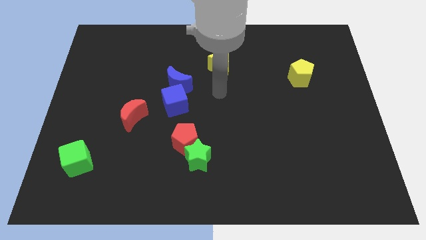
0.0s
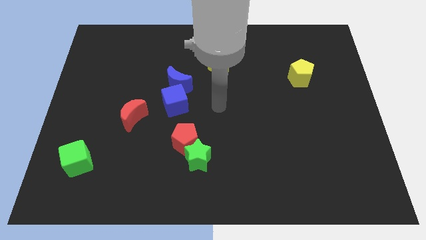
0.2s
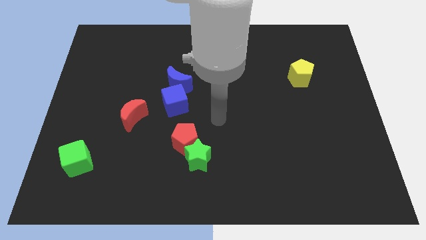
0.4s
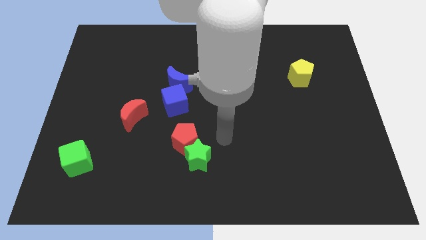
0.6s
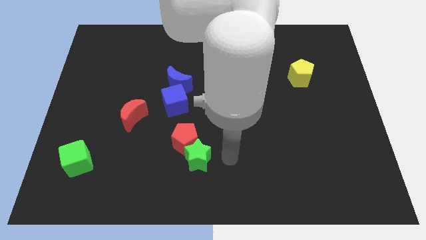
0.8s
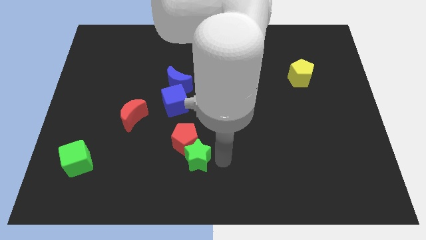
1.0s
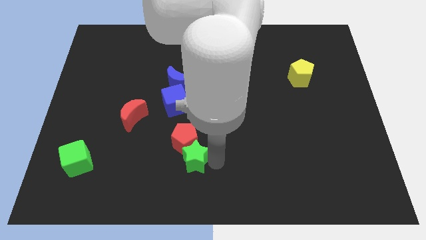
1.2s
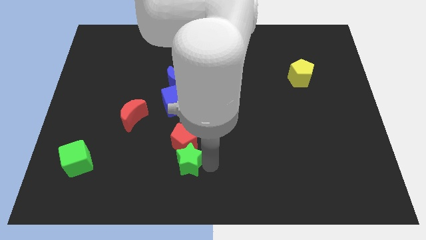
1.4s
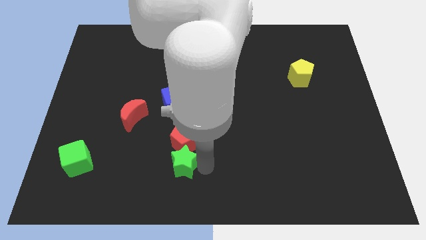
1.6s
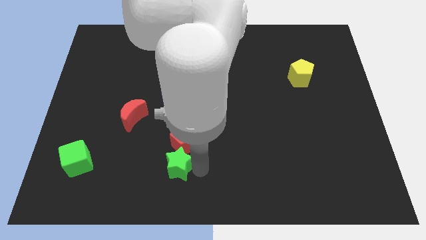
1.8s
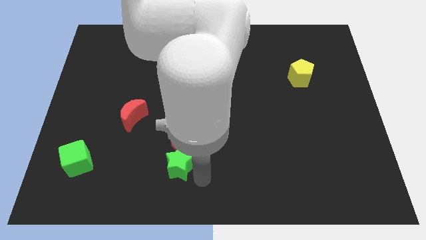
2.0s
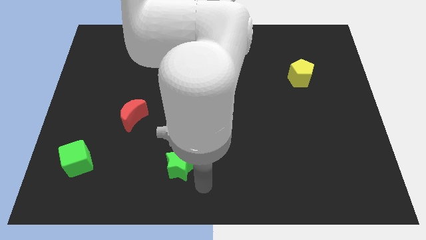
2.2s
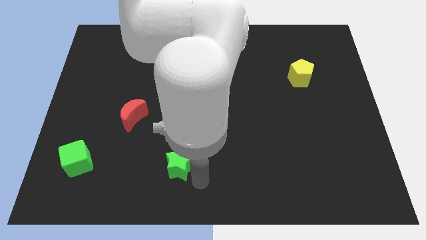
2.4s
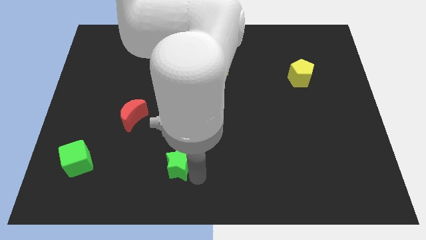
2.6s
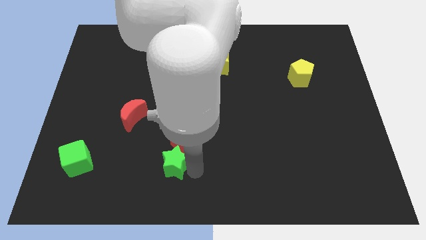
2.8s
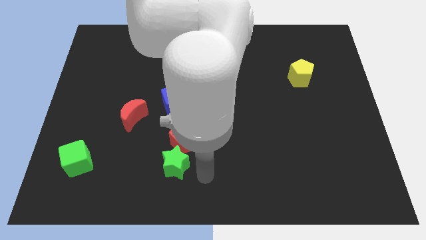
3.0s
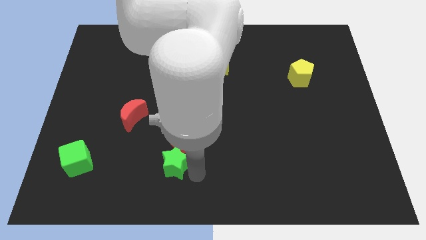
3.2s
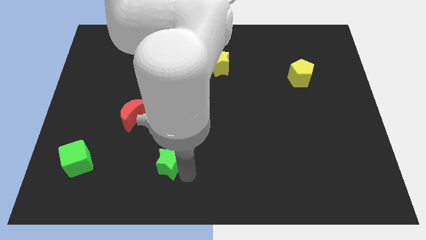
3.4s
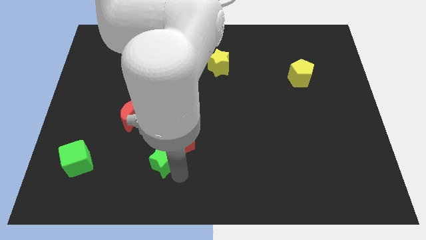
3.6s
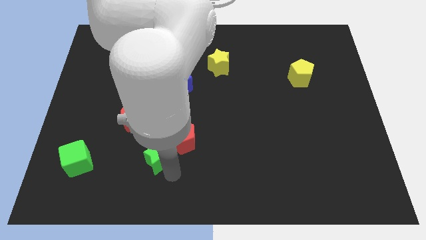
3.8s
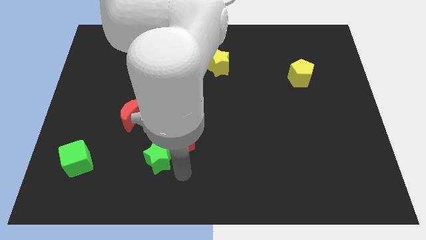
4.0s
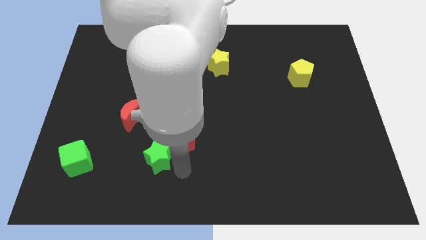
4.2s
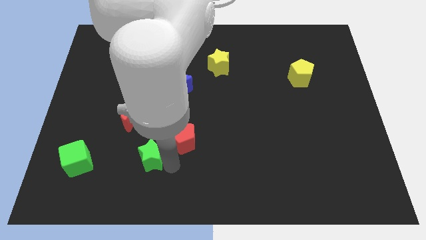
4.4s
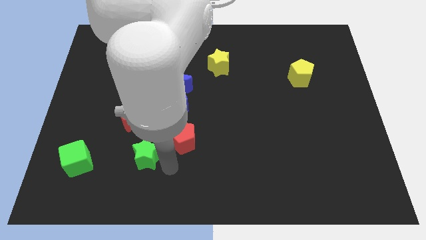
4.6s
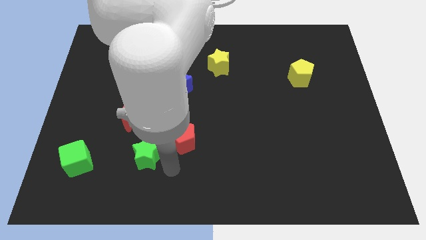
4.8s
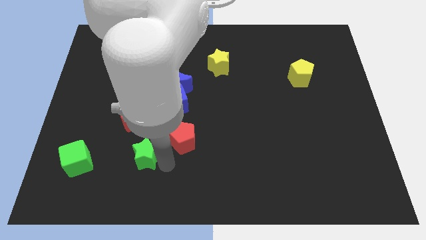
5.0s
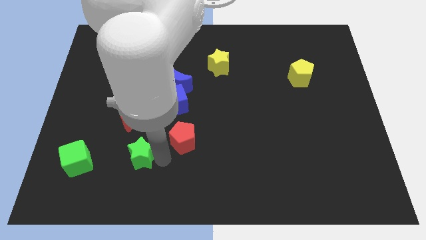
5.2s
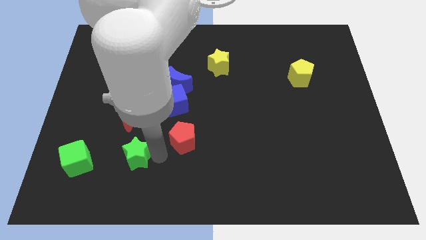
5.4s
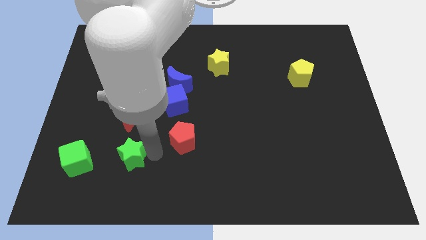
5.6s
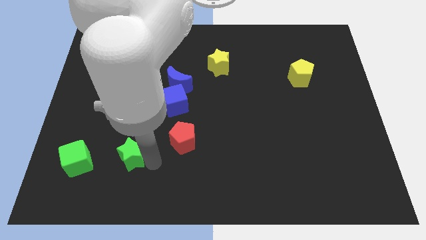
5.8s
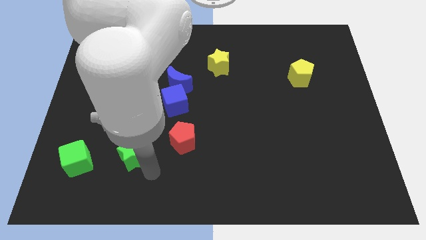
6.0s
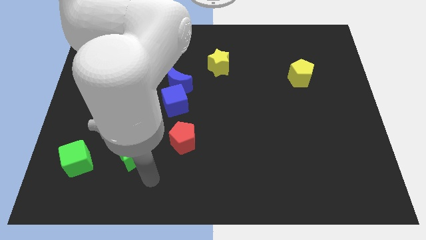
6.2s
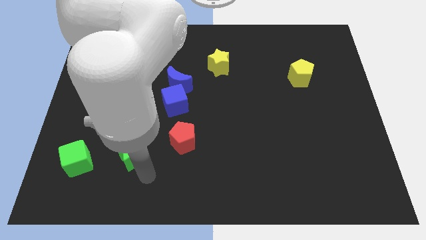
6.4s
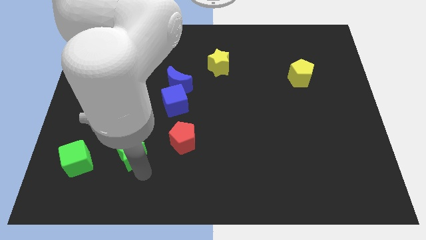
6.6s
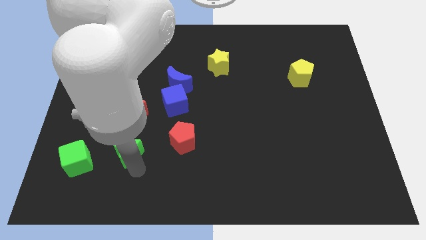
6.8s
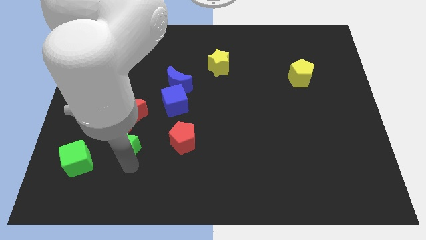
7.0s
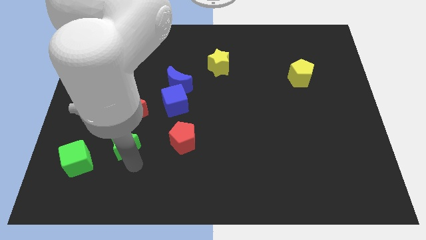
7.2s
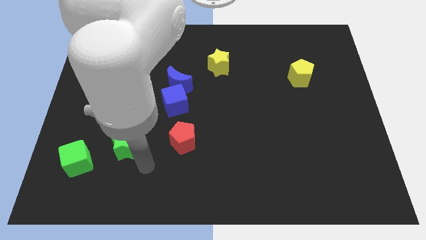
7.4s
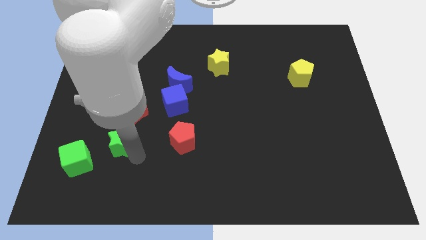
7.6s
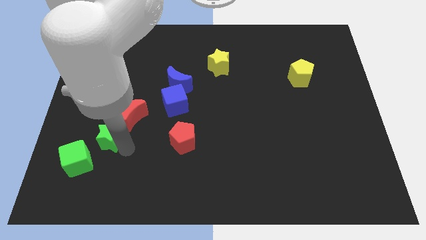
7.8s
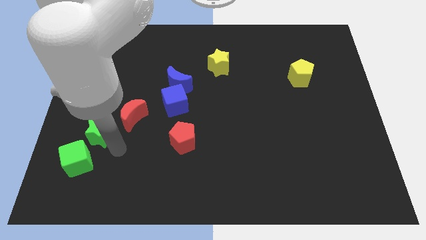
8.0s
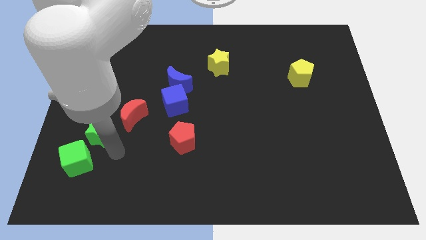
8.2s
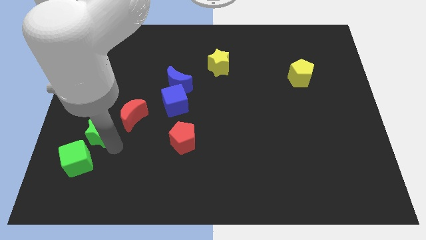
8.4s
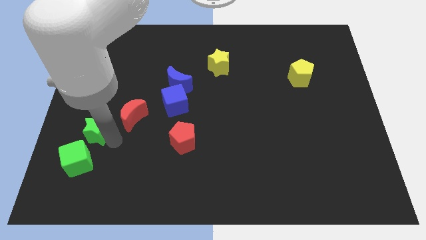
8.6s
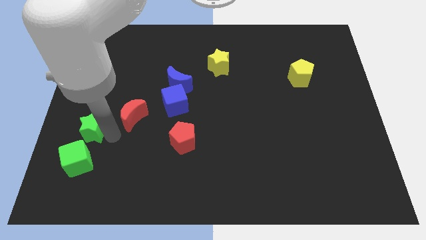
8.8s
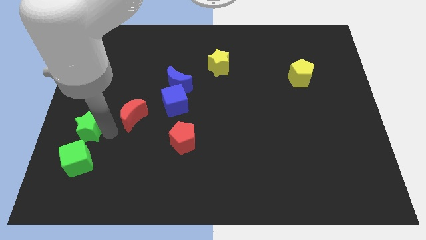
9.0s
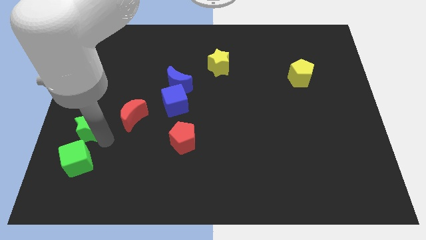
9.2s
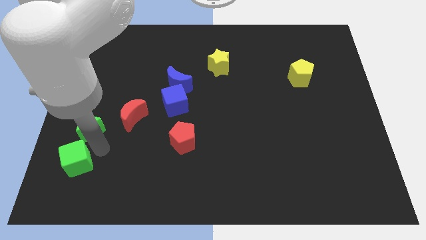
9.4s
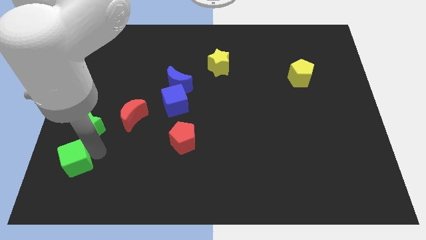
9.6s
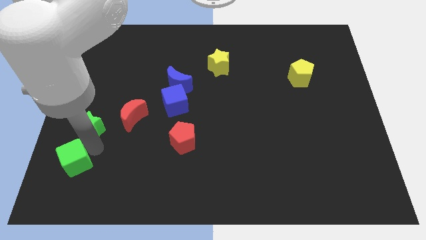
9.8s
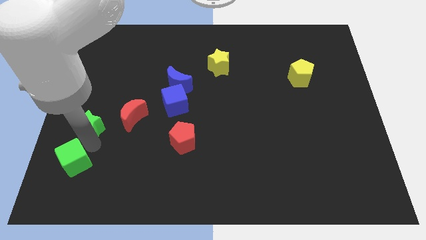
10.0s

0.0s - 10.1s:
move the green star to the center left

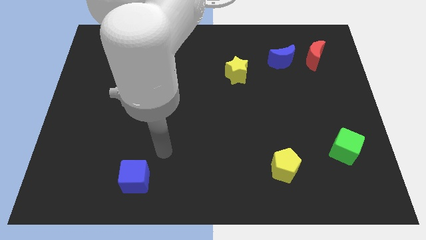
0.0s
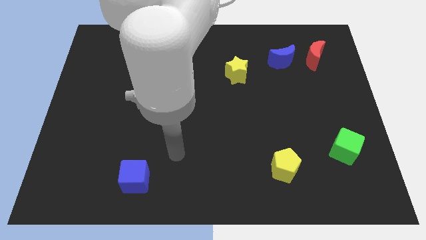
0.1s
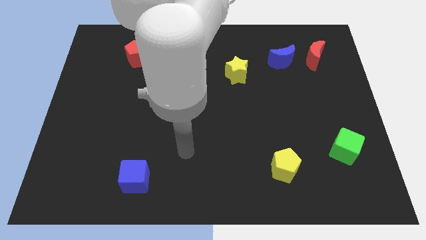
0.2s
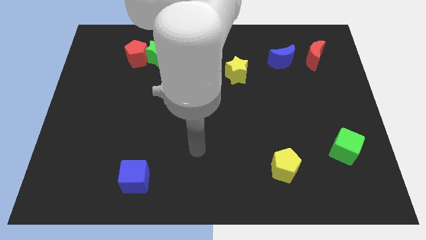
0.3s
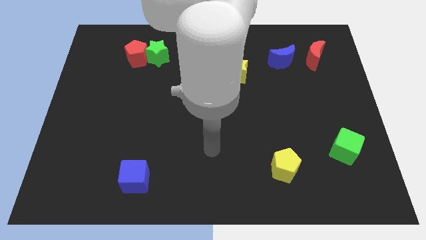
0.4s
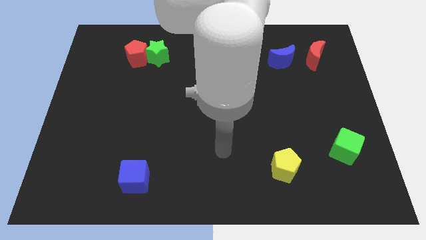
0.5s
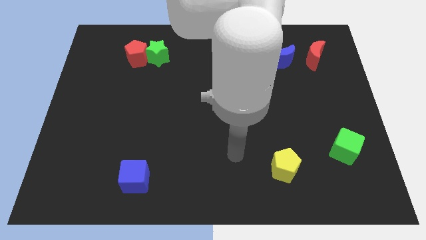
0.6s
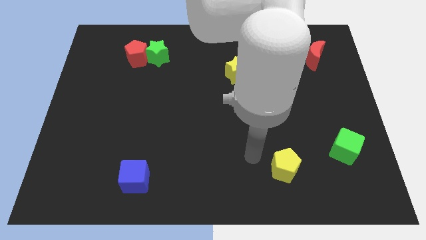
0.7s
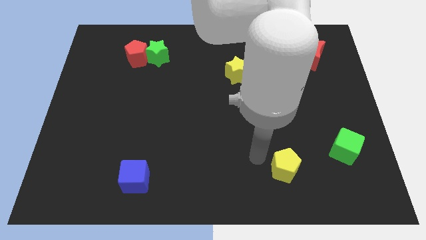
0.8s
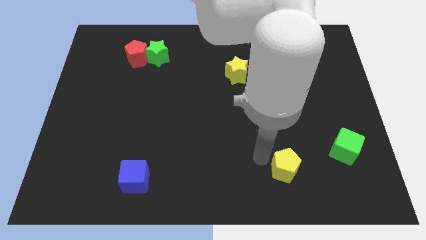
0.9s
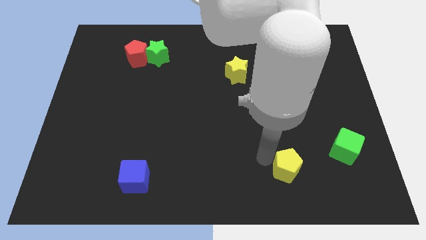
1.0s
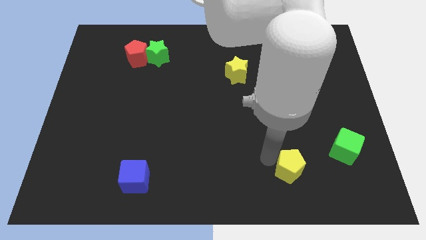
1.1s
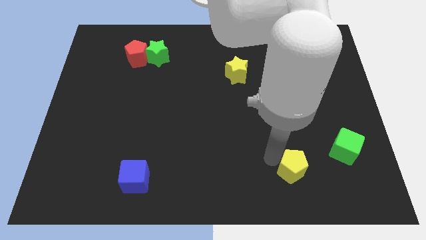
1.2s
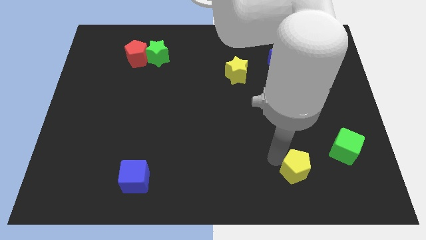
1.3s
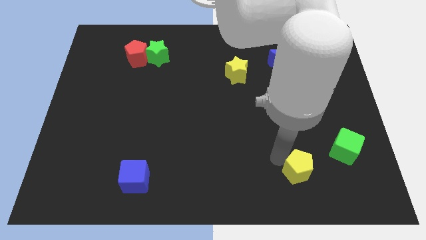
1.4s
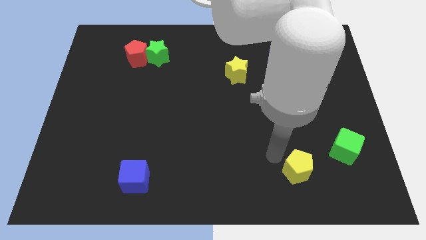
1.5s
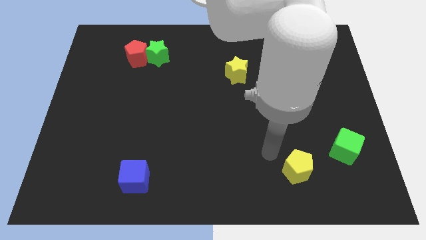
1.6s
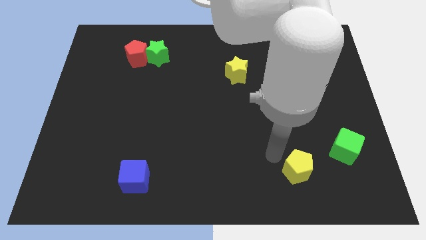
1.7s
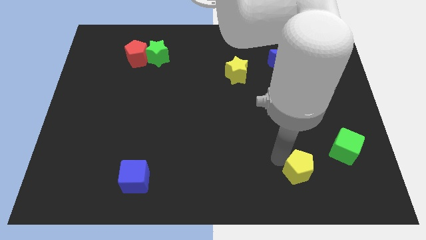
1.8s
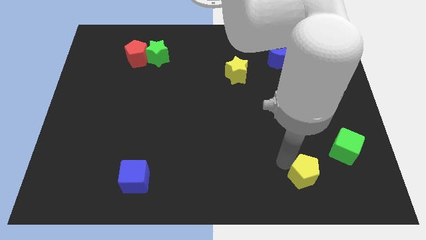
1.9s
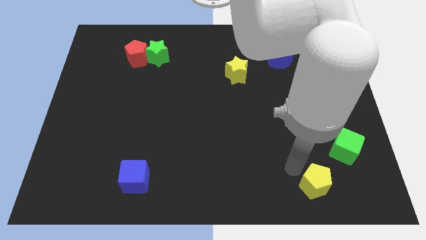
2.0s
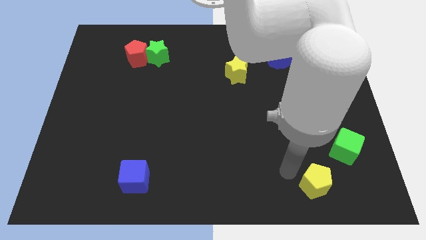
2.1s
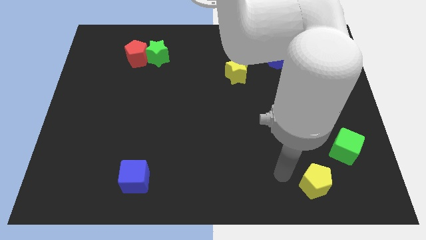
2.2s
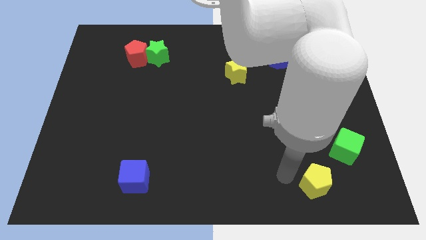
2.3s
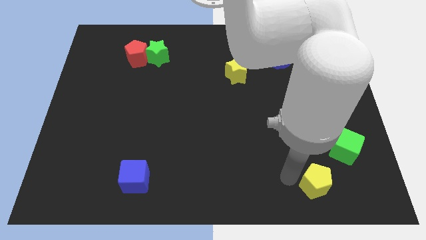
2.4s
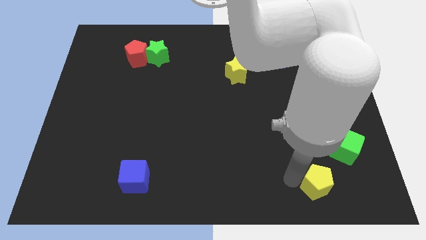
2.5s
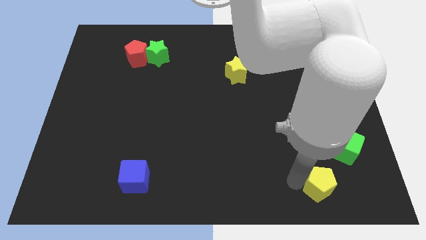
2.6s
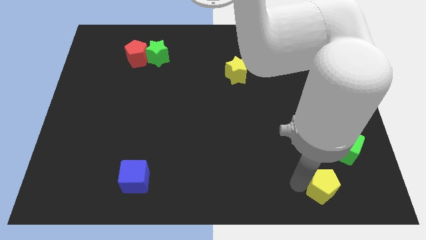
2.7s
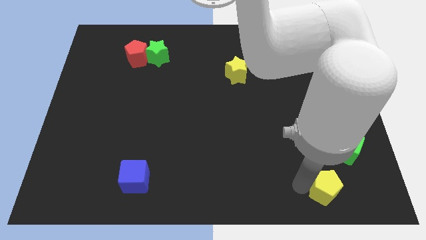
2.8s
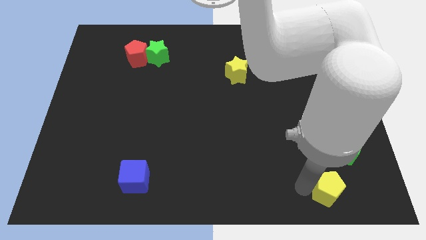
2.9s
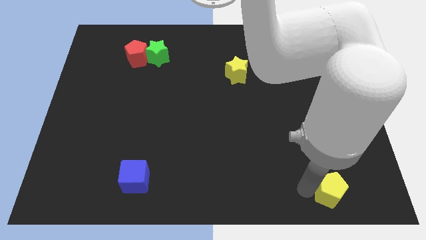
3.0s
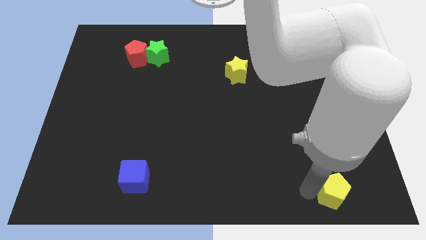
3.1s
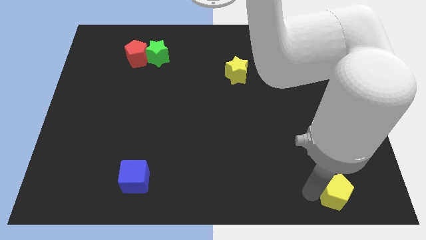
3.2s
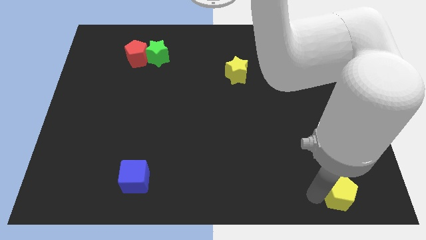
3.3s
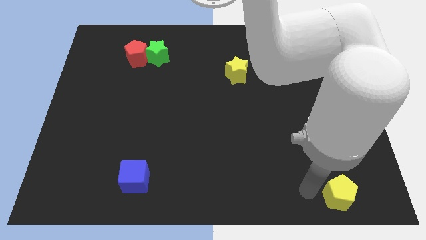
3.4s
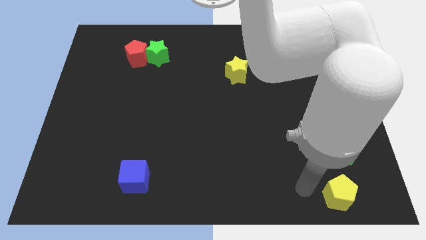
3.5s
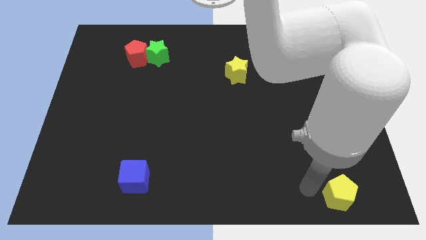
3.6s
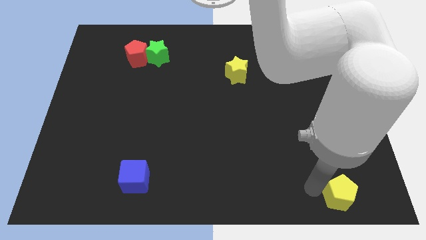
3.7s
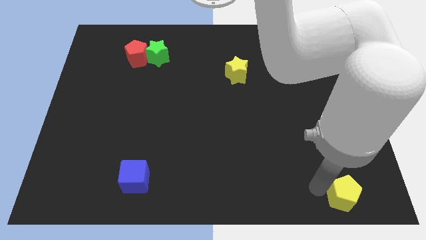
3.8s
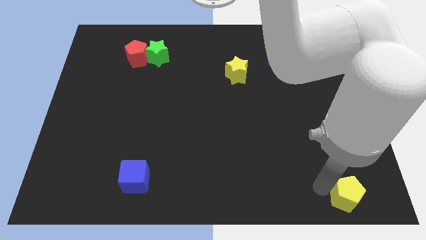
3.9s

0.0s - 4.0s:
put the yellow pentagon to the bottom right of the board
